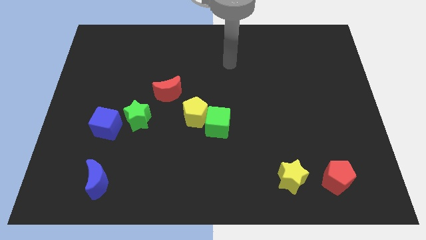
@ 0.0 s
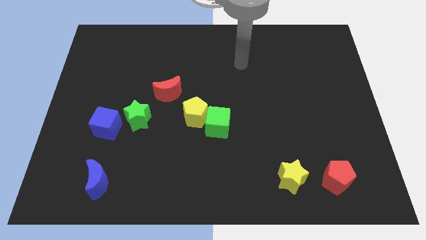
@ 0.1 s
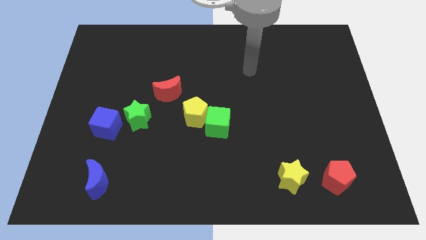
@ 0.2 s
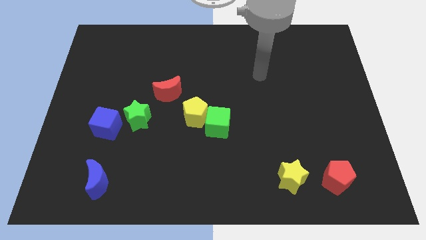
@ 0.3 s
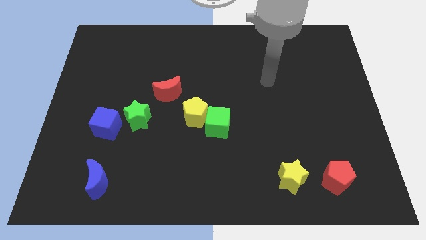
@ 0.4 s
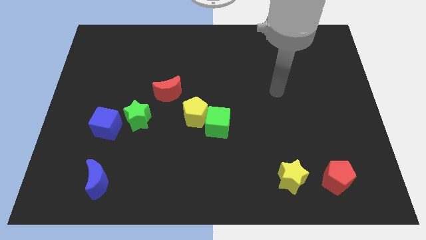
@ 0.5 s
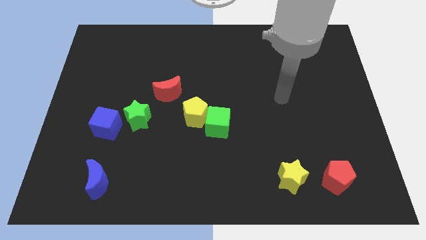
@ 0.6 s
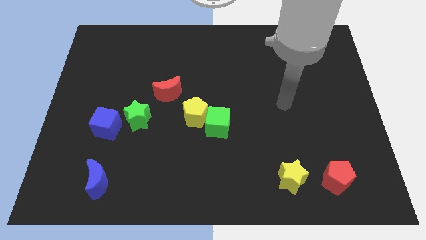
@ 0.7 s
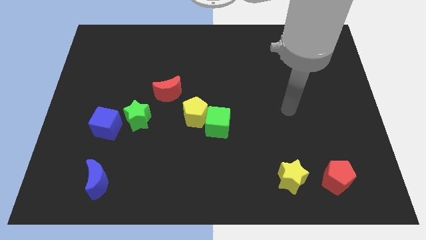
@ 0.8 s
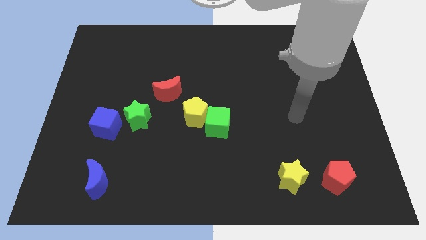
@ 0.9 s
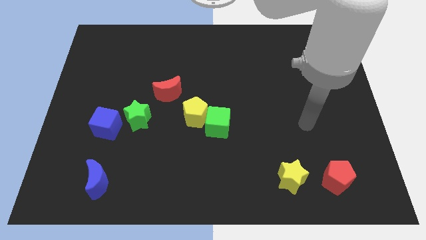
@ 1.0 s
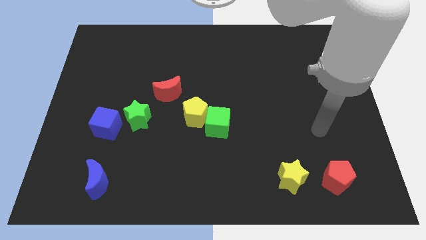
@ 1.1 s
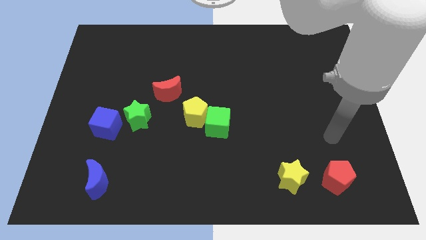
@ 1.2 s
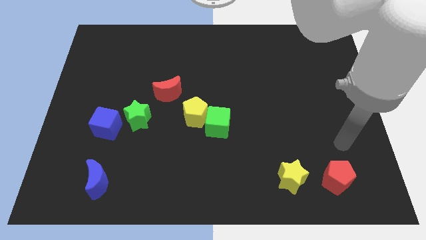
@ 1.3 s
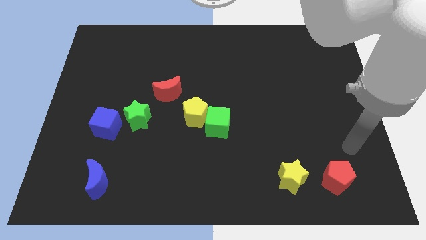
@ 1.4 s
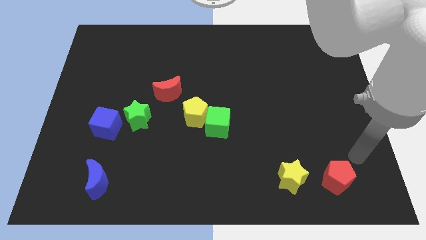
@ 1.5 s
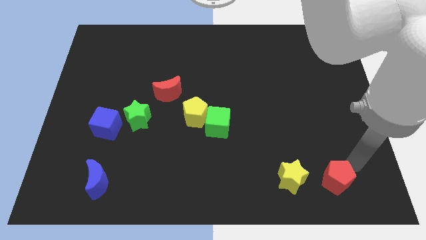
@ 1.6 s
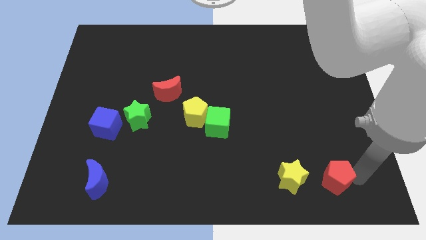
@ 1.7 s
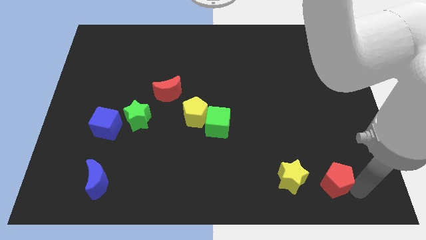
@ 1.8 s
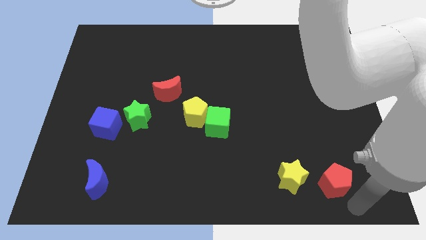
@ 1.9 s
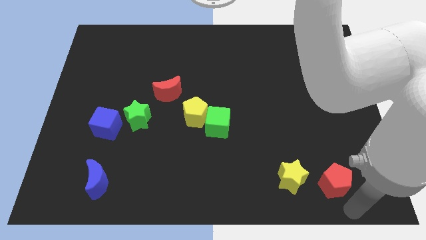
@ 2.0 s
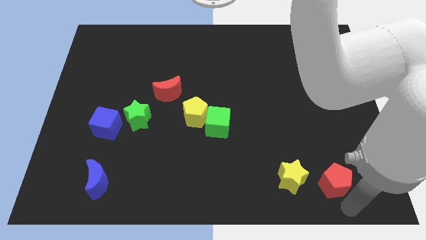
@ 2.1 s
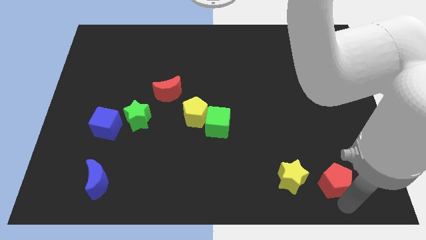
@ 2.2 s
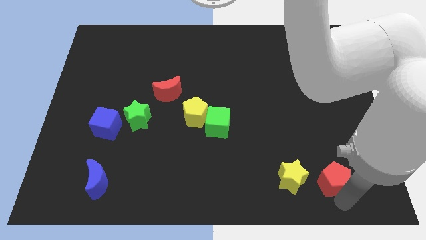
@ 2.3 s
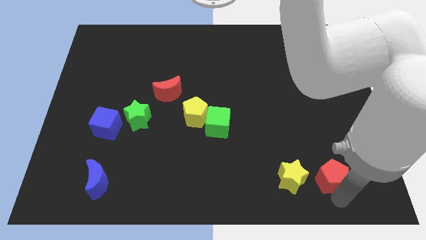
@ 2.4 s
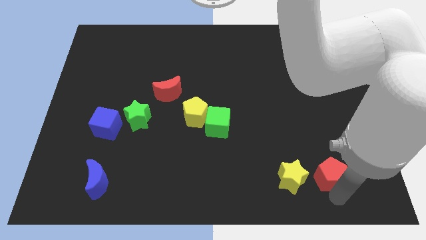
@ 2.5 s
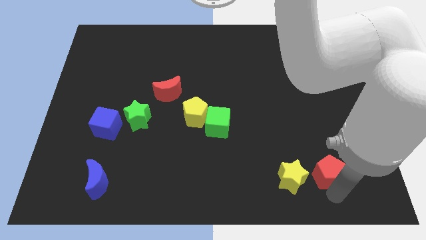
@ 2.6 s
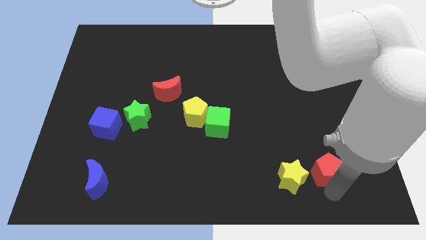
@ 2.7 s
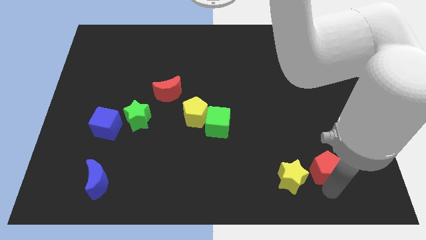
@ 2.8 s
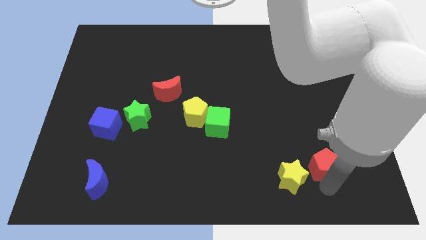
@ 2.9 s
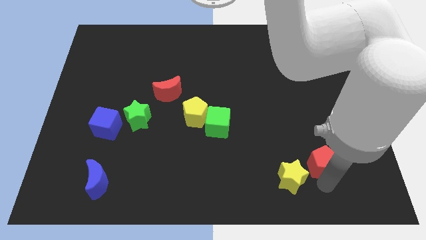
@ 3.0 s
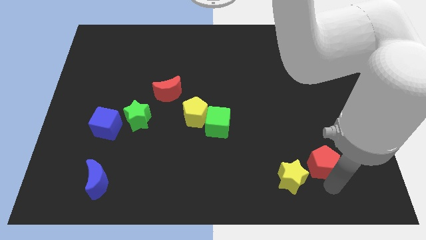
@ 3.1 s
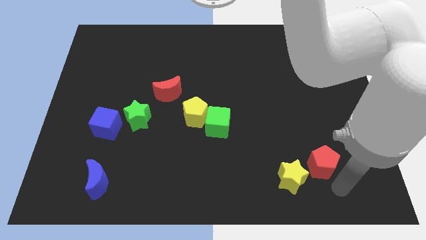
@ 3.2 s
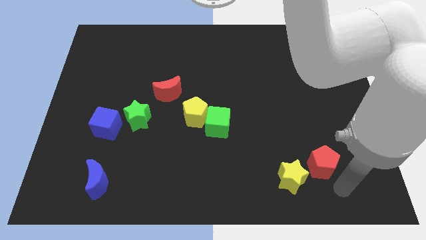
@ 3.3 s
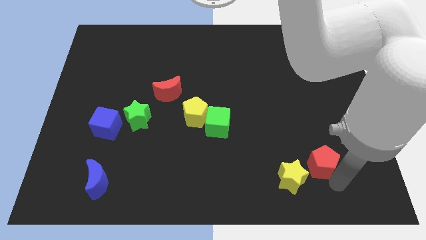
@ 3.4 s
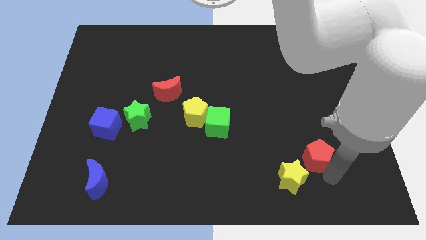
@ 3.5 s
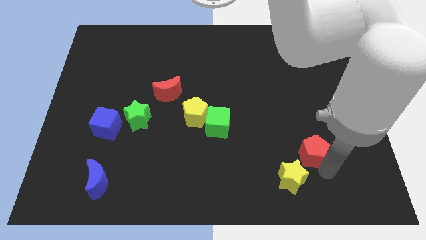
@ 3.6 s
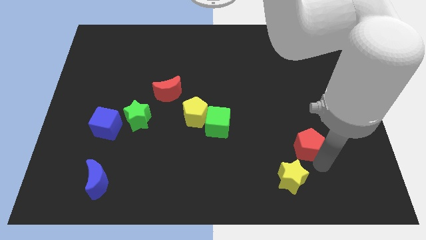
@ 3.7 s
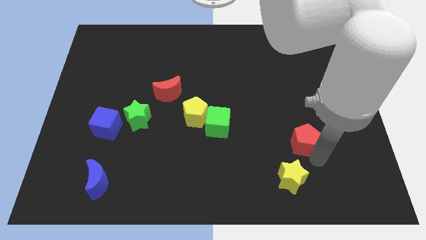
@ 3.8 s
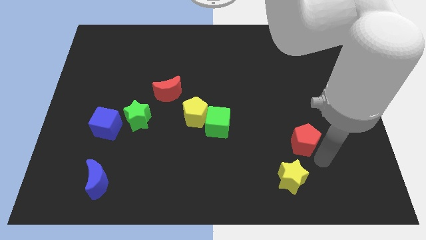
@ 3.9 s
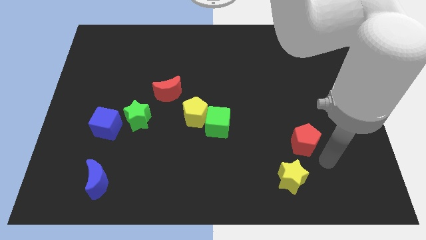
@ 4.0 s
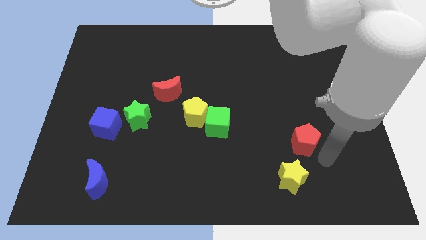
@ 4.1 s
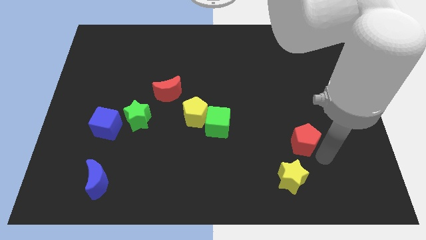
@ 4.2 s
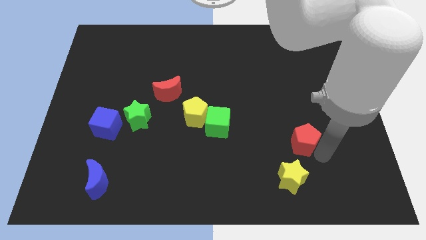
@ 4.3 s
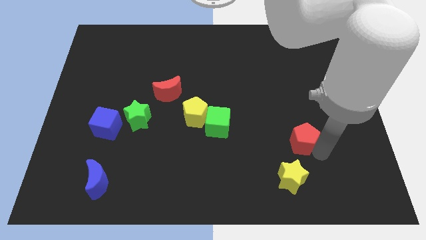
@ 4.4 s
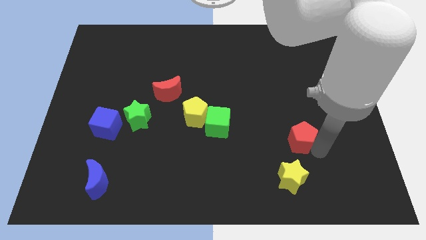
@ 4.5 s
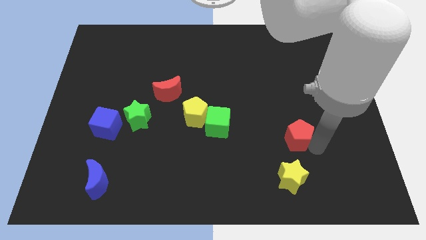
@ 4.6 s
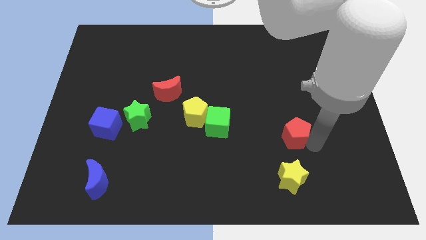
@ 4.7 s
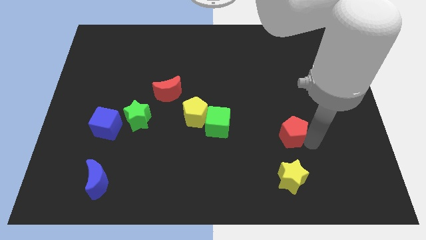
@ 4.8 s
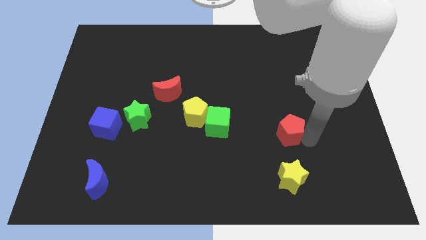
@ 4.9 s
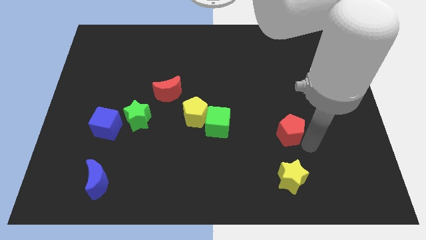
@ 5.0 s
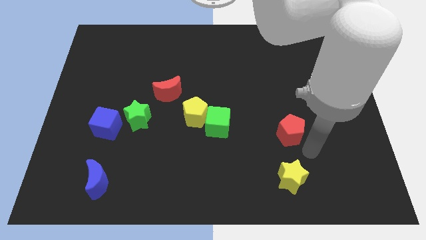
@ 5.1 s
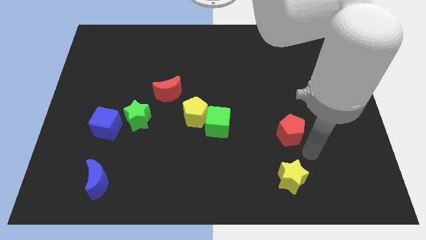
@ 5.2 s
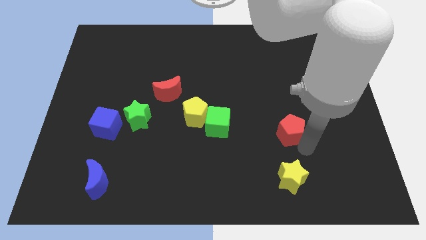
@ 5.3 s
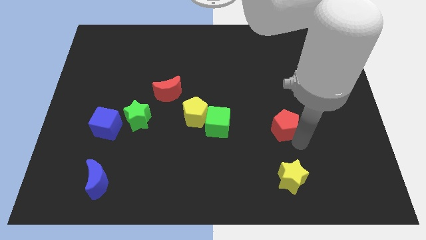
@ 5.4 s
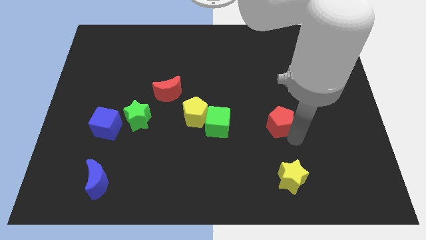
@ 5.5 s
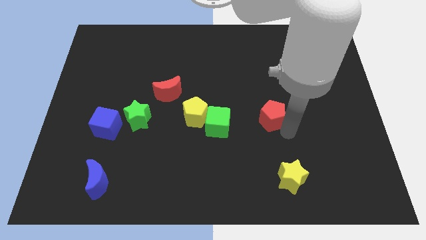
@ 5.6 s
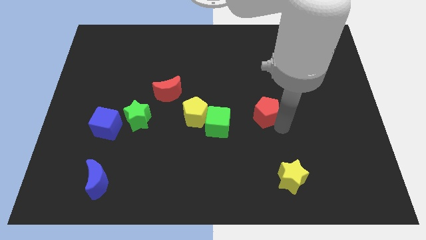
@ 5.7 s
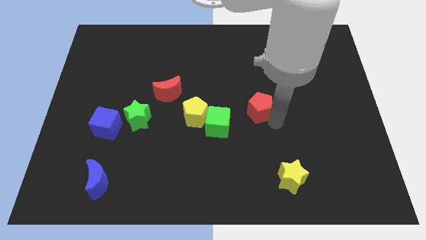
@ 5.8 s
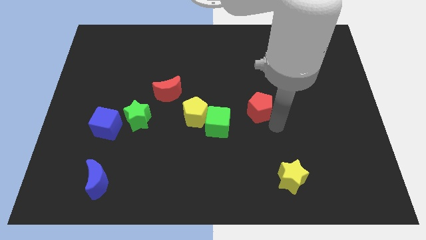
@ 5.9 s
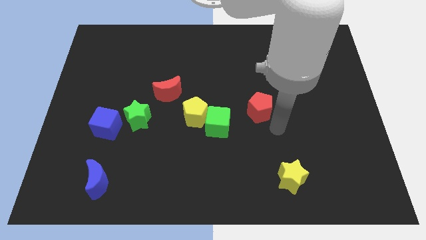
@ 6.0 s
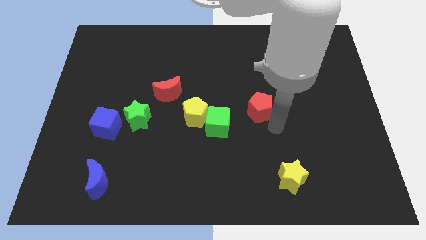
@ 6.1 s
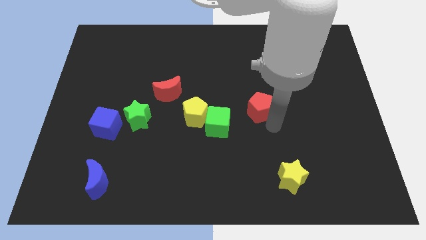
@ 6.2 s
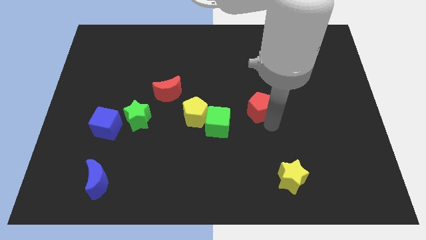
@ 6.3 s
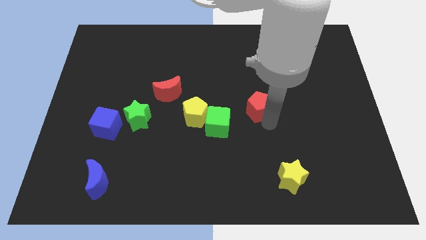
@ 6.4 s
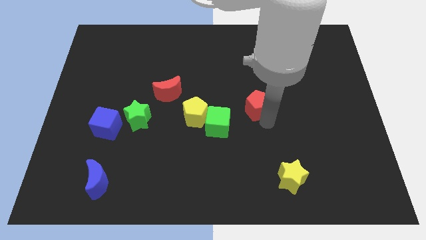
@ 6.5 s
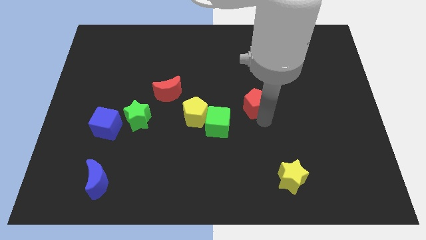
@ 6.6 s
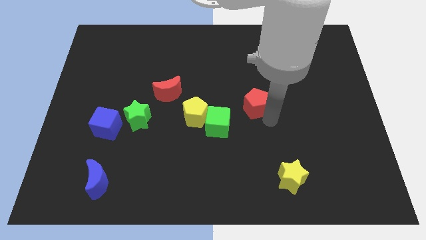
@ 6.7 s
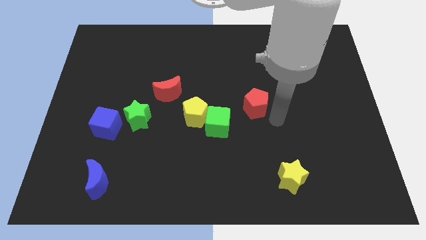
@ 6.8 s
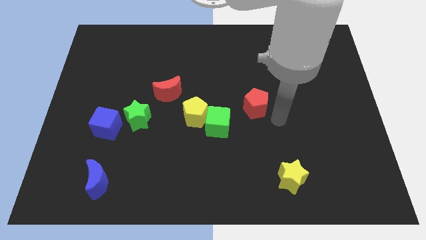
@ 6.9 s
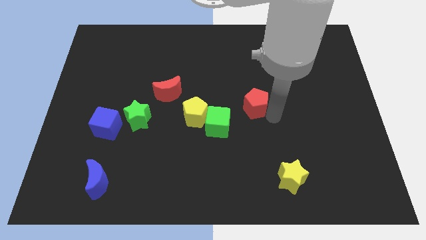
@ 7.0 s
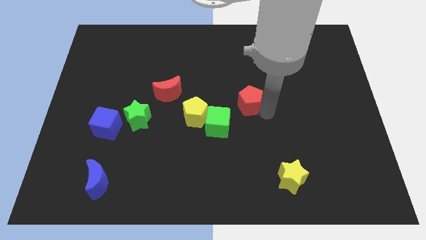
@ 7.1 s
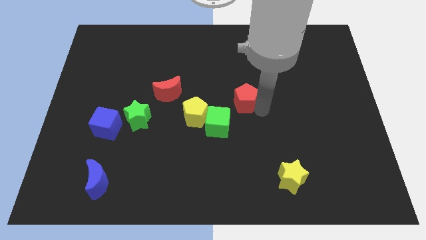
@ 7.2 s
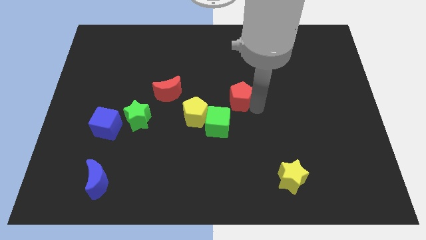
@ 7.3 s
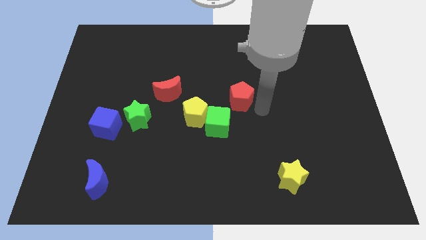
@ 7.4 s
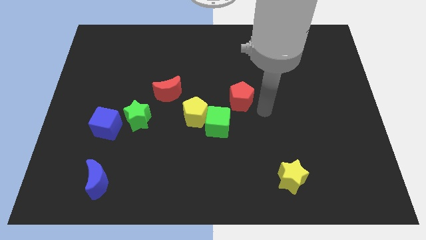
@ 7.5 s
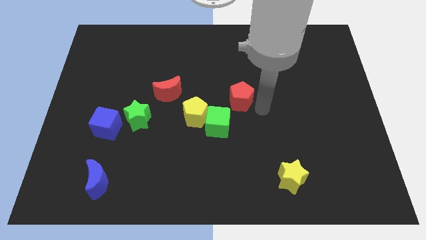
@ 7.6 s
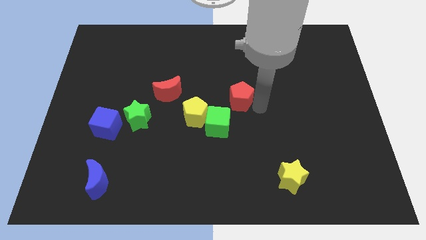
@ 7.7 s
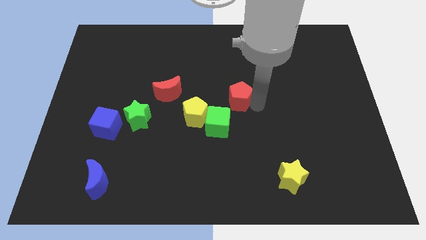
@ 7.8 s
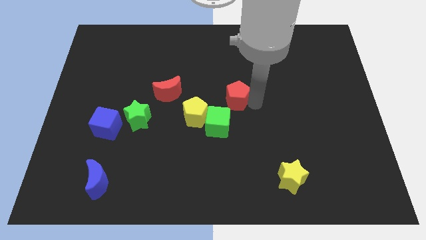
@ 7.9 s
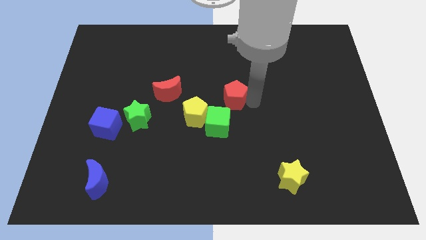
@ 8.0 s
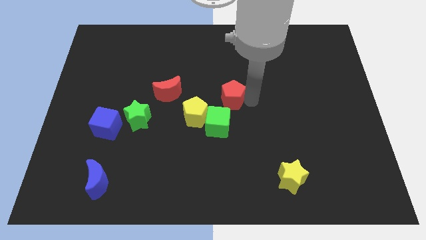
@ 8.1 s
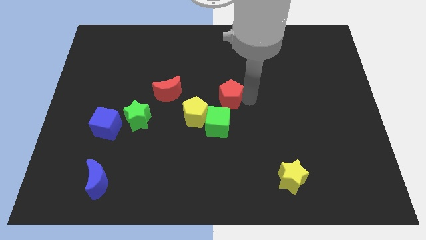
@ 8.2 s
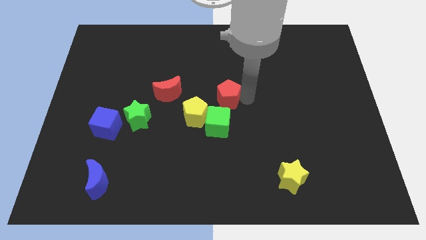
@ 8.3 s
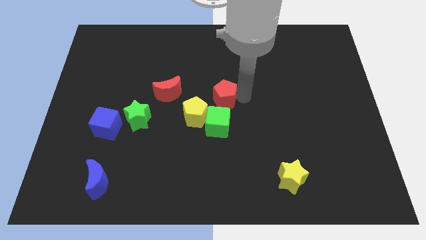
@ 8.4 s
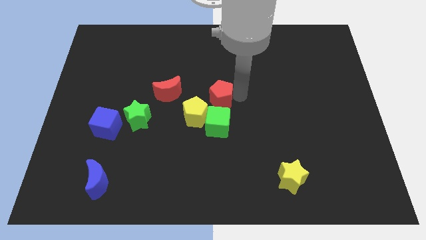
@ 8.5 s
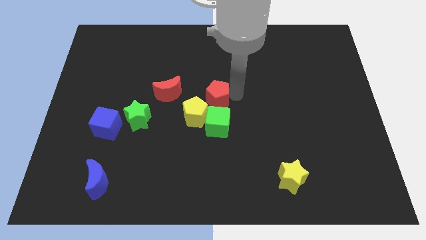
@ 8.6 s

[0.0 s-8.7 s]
put the red pentagon to the top of the yellow pentagon
